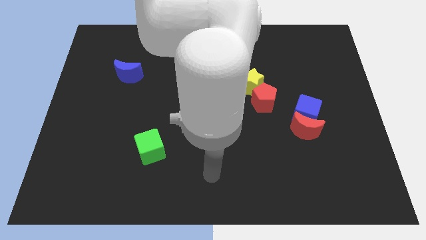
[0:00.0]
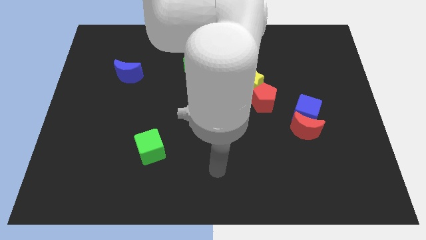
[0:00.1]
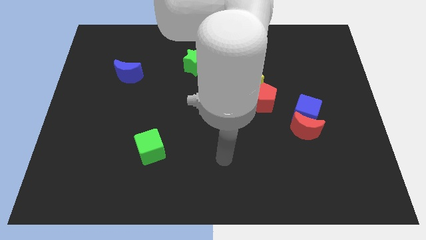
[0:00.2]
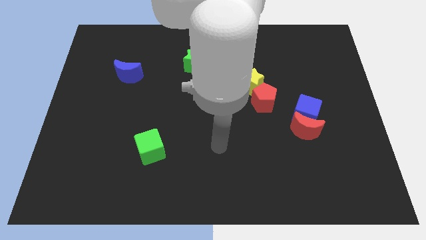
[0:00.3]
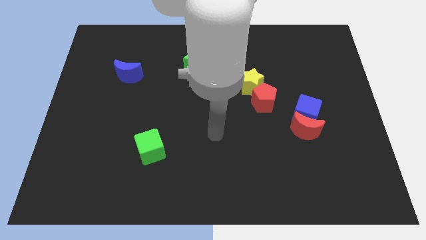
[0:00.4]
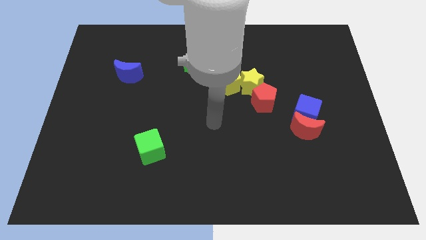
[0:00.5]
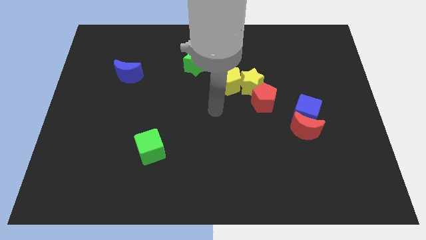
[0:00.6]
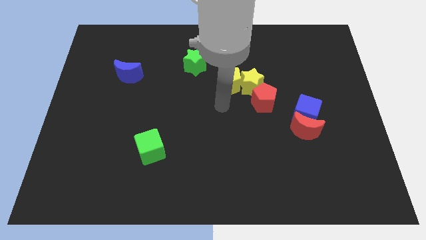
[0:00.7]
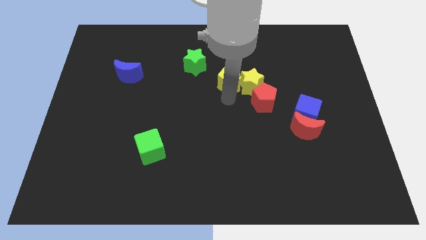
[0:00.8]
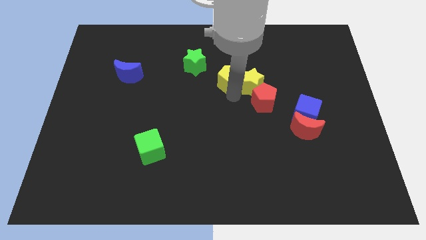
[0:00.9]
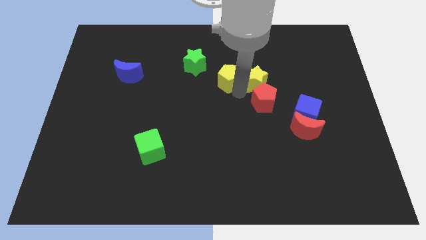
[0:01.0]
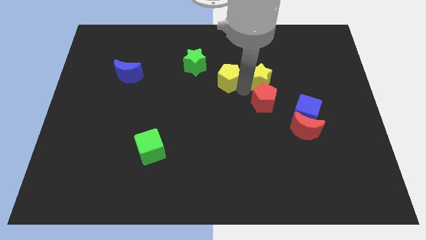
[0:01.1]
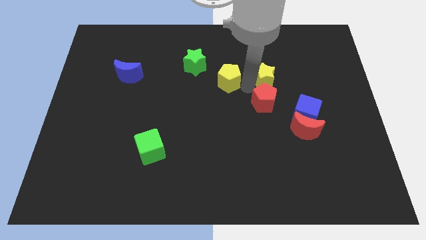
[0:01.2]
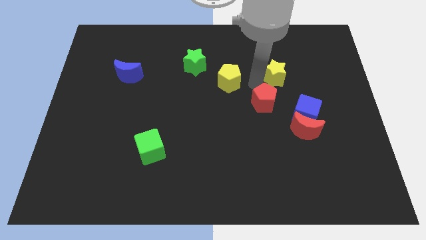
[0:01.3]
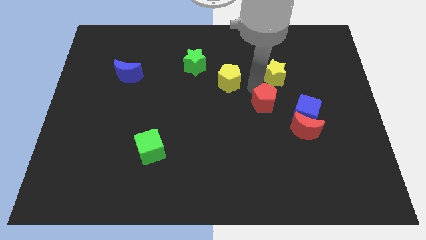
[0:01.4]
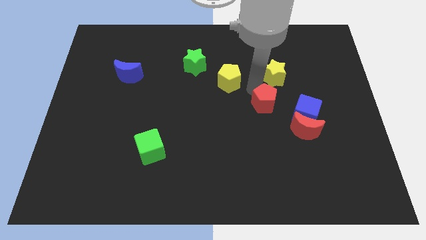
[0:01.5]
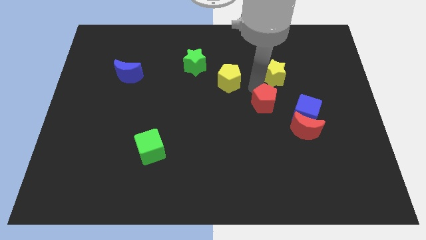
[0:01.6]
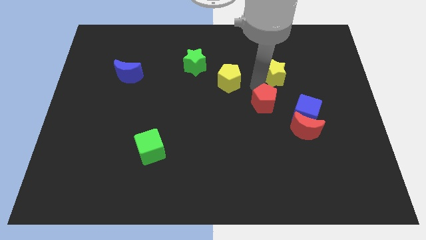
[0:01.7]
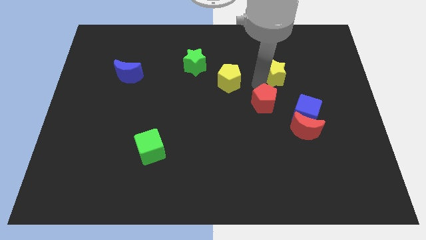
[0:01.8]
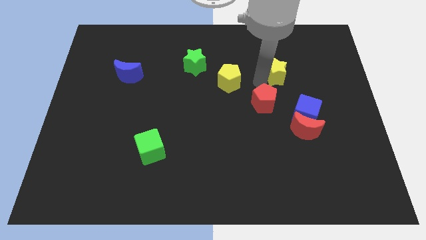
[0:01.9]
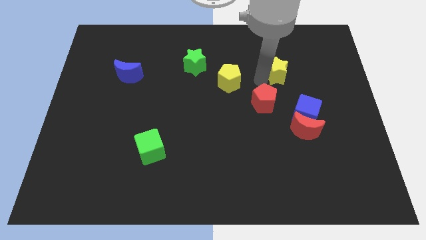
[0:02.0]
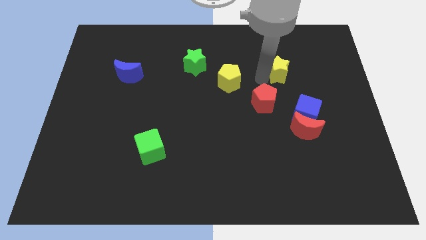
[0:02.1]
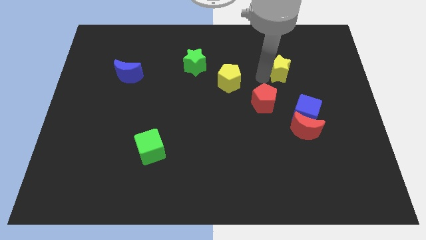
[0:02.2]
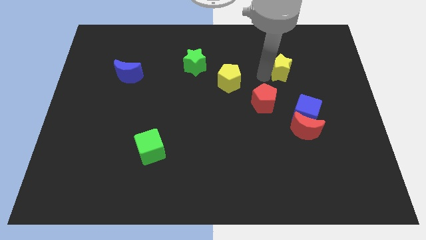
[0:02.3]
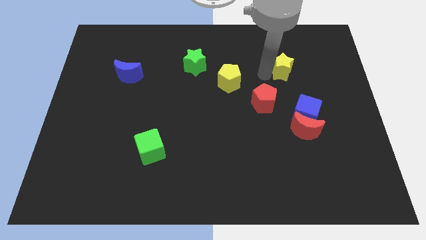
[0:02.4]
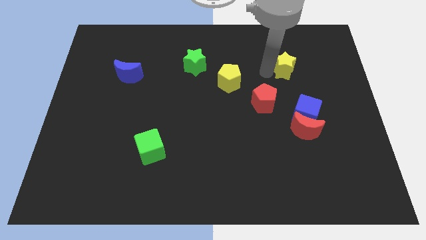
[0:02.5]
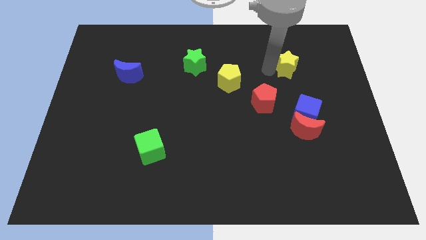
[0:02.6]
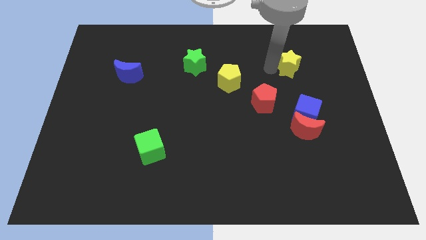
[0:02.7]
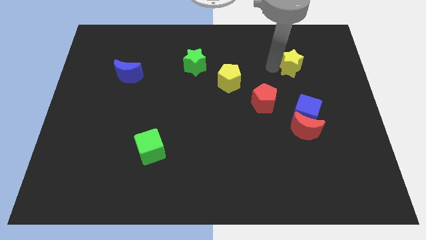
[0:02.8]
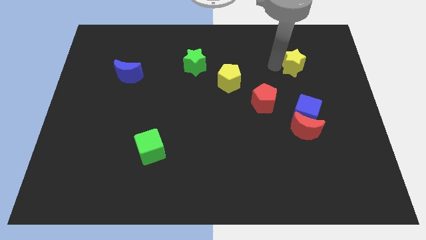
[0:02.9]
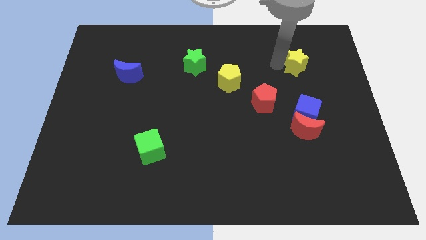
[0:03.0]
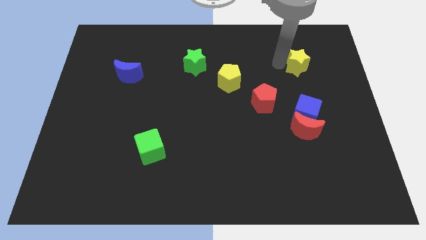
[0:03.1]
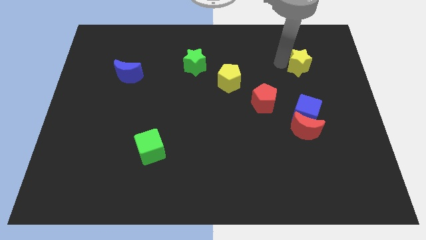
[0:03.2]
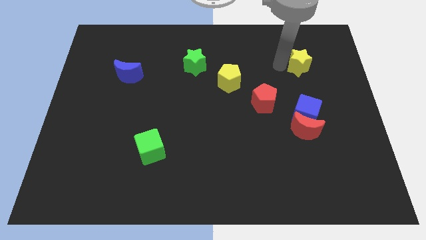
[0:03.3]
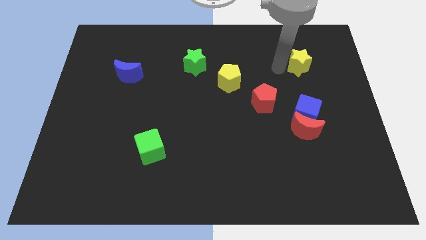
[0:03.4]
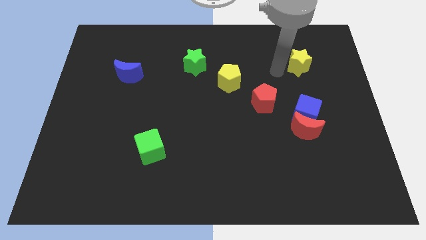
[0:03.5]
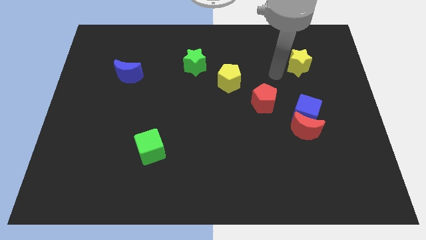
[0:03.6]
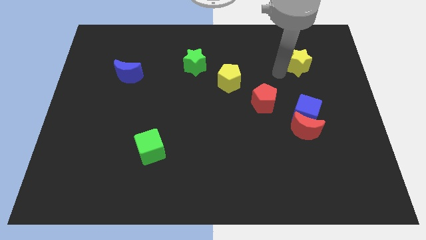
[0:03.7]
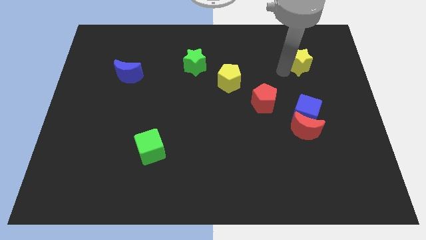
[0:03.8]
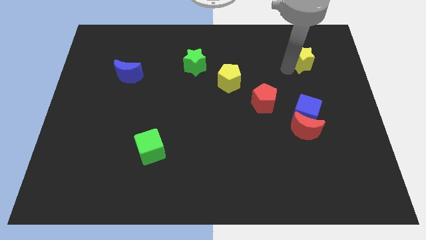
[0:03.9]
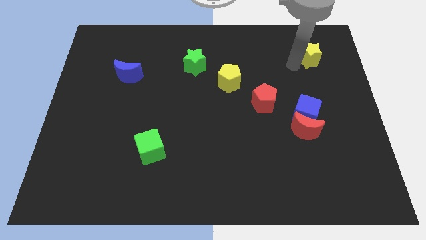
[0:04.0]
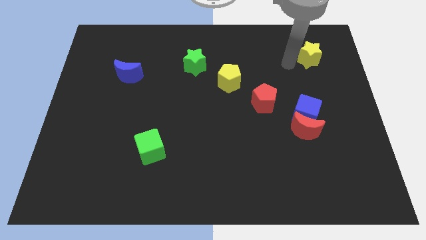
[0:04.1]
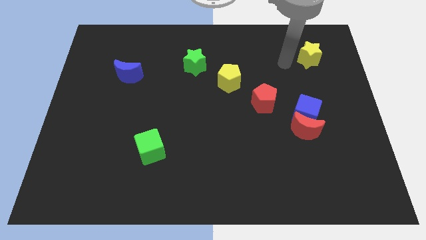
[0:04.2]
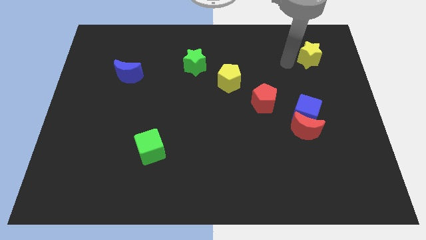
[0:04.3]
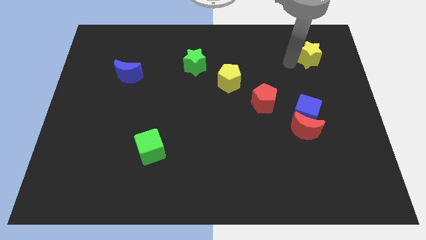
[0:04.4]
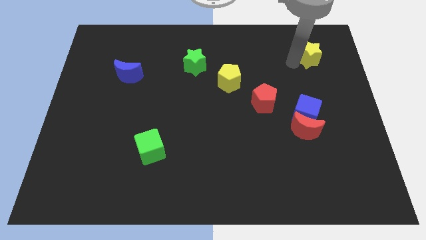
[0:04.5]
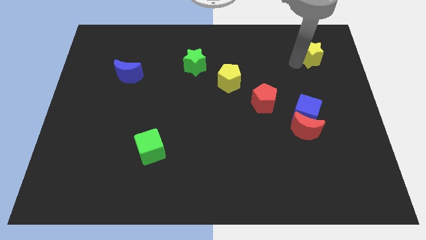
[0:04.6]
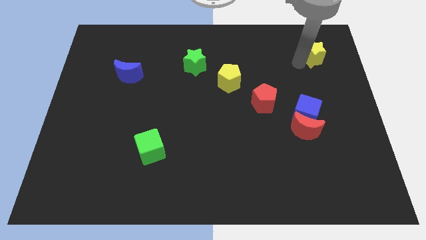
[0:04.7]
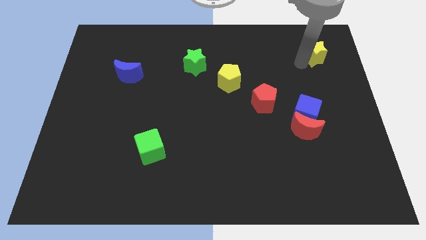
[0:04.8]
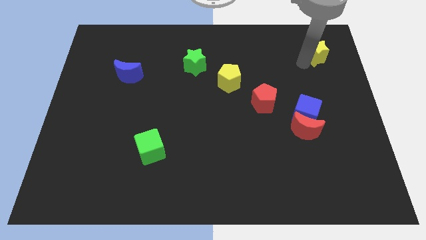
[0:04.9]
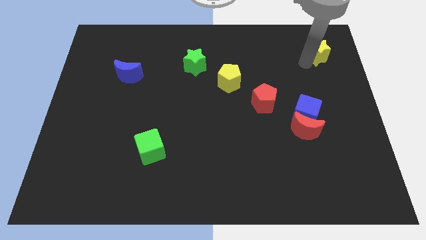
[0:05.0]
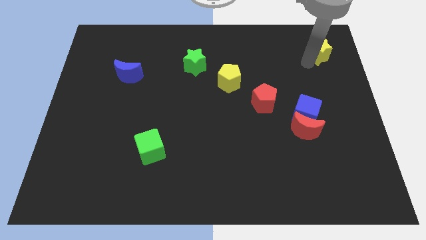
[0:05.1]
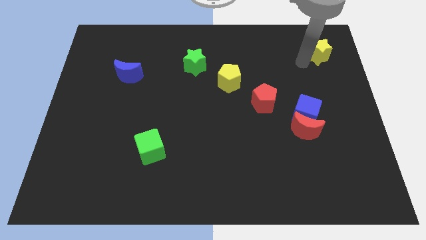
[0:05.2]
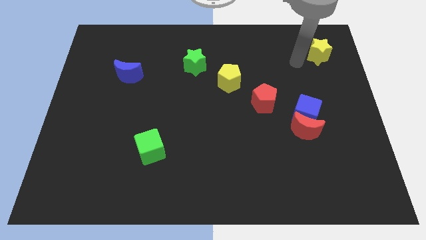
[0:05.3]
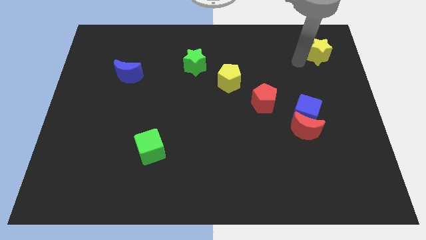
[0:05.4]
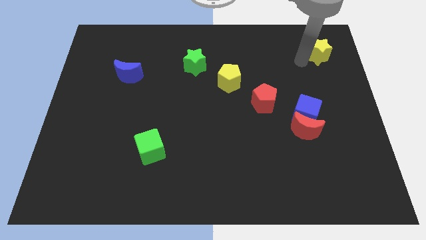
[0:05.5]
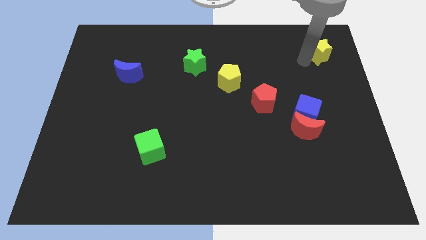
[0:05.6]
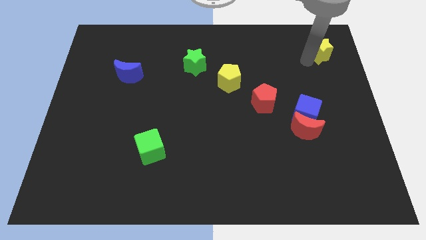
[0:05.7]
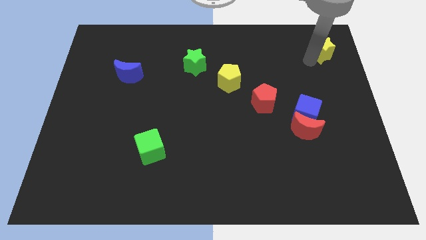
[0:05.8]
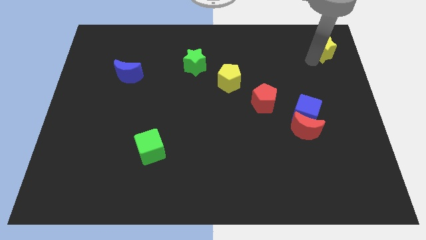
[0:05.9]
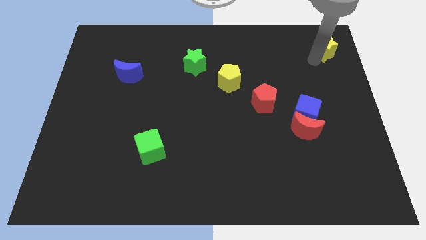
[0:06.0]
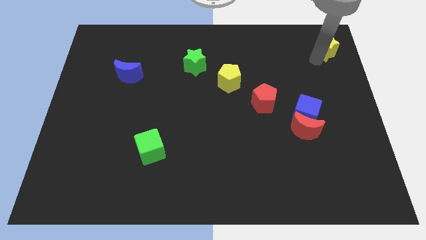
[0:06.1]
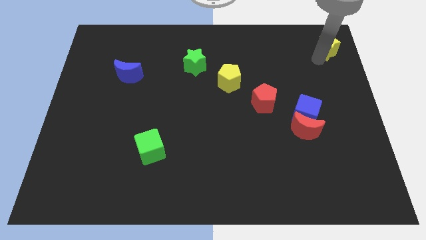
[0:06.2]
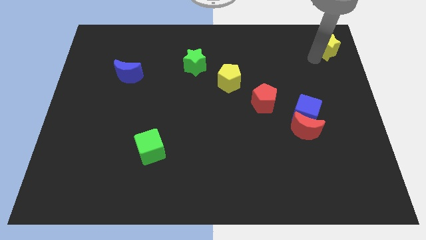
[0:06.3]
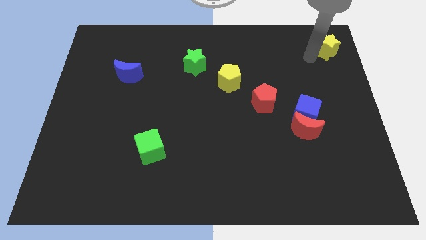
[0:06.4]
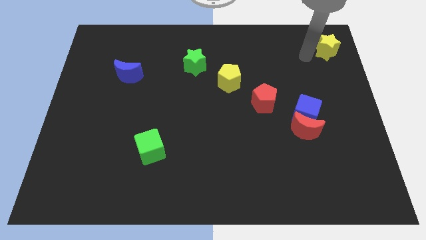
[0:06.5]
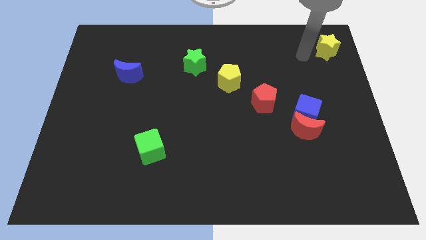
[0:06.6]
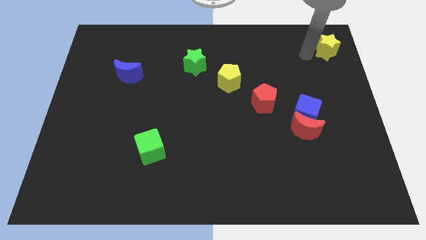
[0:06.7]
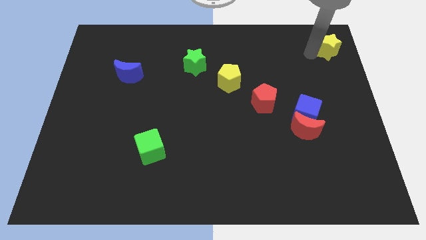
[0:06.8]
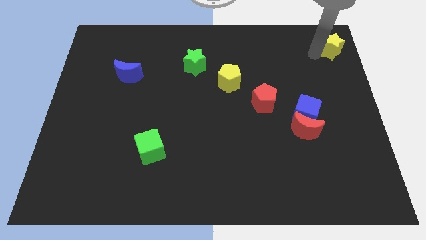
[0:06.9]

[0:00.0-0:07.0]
slide the yellow star to the top right corner
